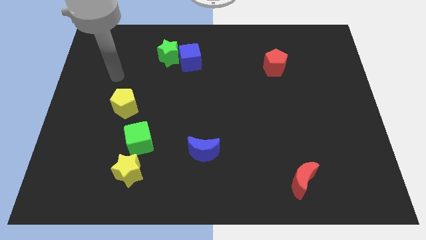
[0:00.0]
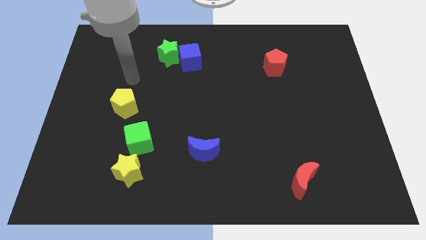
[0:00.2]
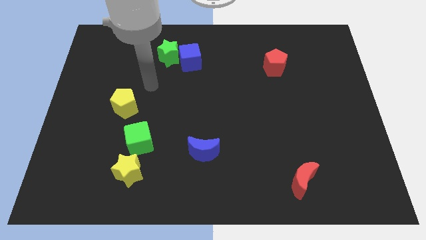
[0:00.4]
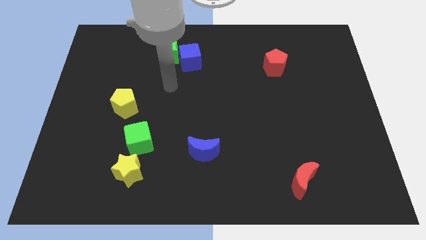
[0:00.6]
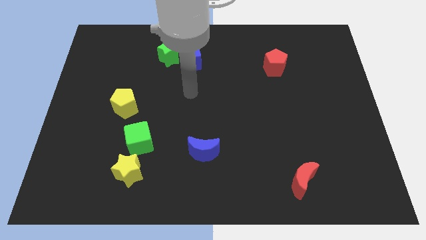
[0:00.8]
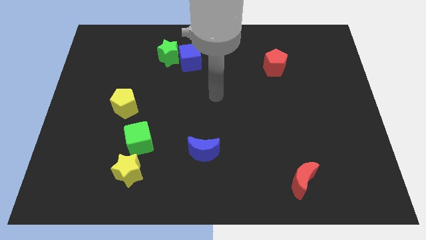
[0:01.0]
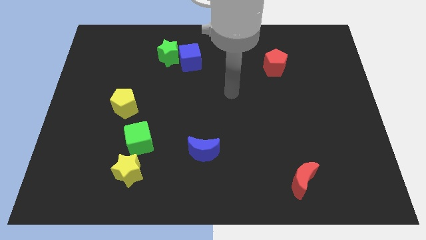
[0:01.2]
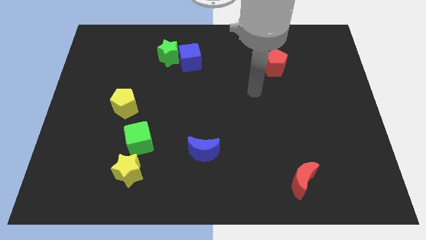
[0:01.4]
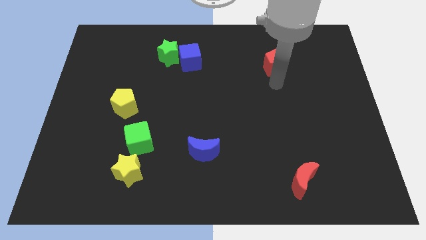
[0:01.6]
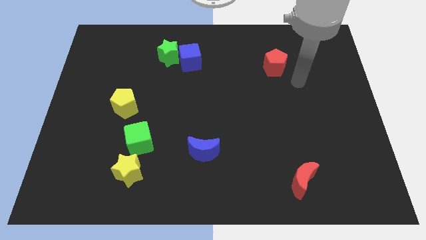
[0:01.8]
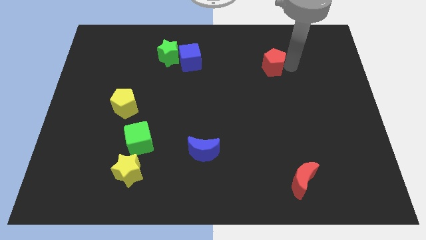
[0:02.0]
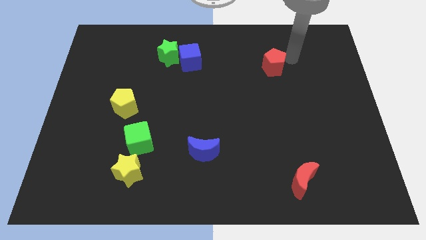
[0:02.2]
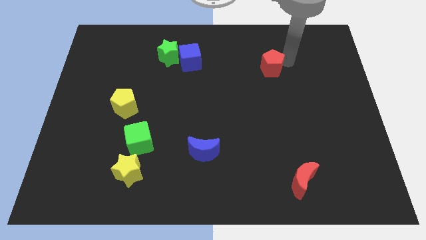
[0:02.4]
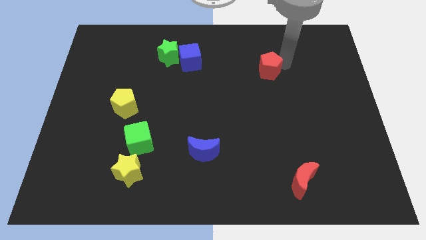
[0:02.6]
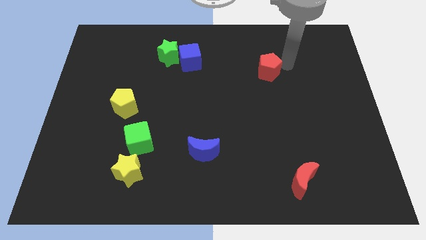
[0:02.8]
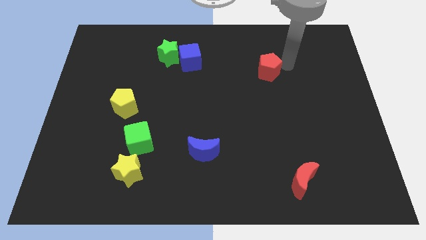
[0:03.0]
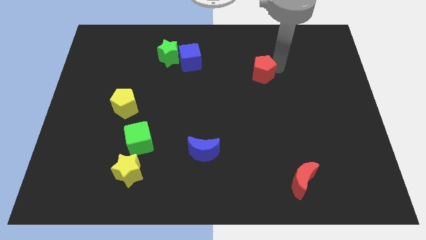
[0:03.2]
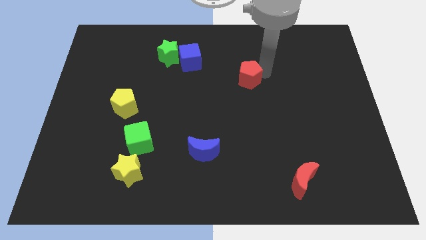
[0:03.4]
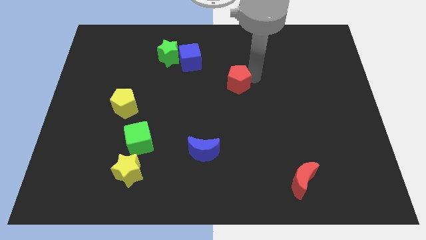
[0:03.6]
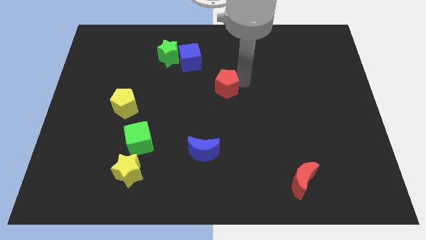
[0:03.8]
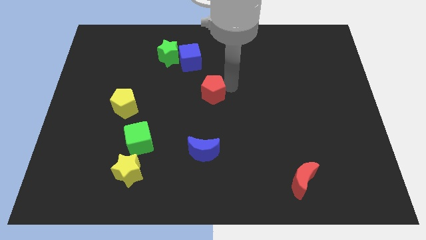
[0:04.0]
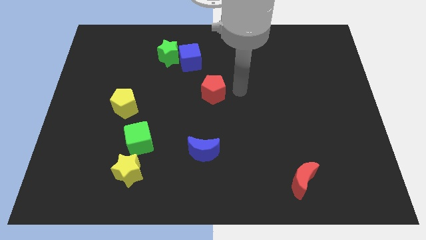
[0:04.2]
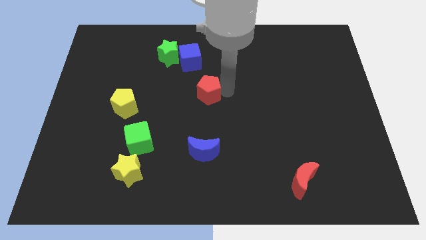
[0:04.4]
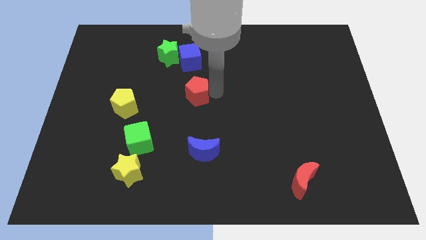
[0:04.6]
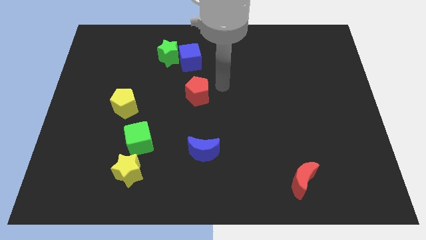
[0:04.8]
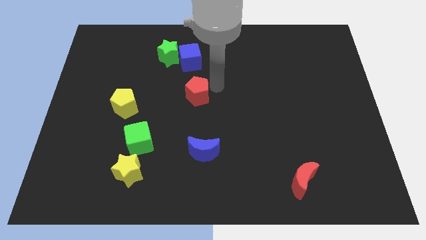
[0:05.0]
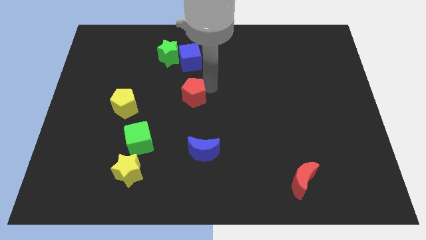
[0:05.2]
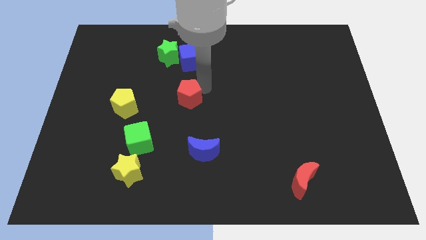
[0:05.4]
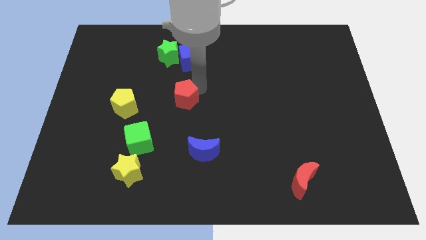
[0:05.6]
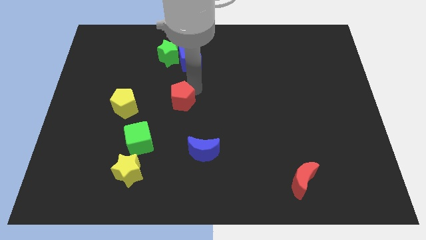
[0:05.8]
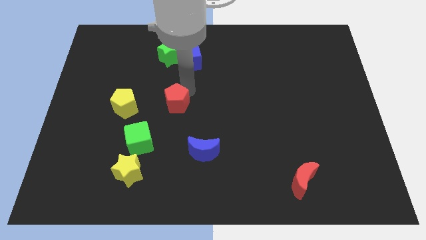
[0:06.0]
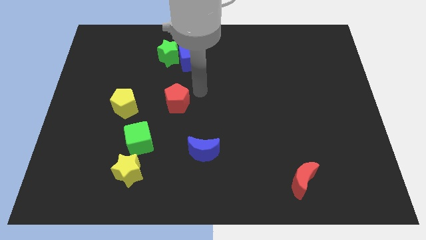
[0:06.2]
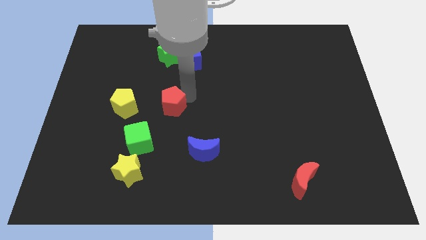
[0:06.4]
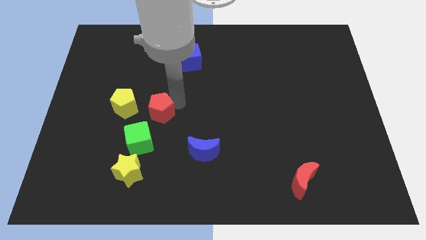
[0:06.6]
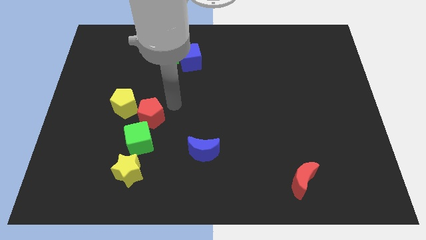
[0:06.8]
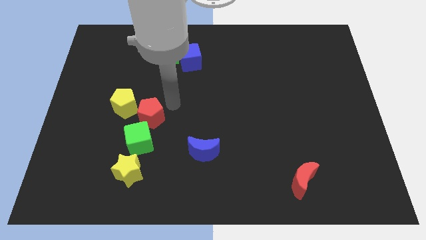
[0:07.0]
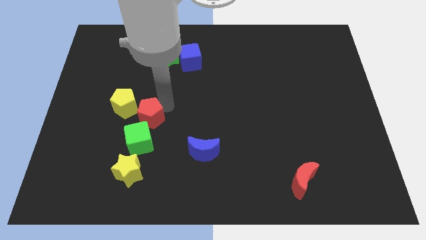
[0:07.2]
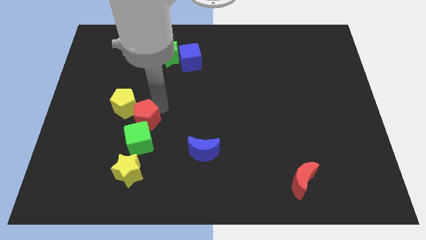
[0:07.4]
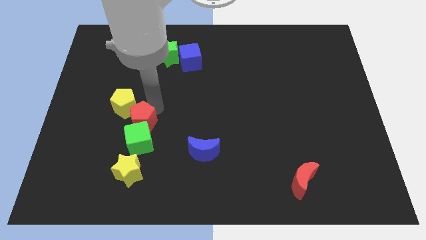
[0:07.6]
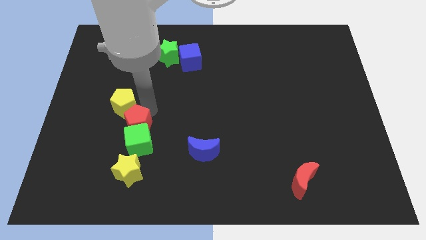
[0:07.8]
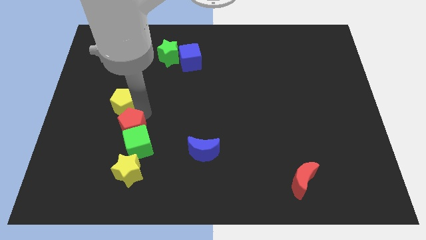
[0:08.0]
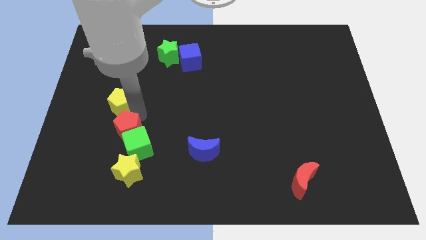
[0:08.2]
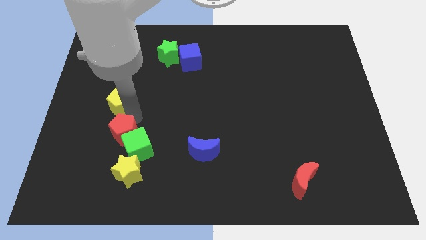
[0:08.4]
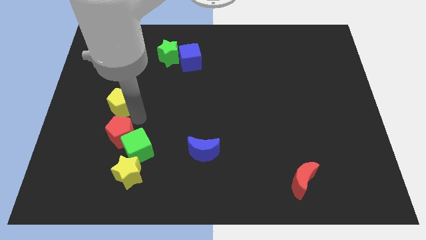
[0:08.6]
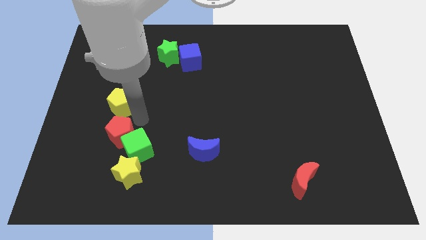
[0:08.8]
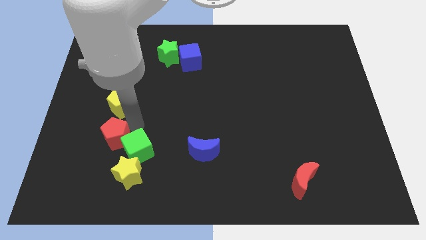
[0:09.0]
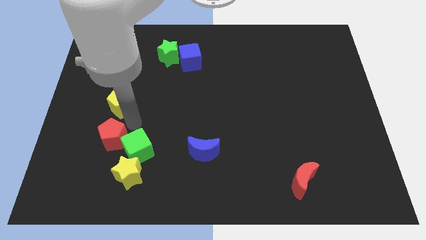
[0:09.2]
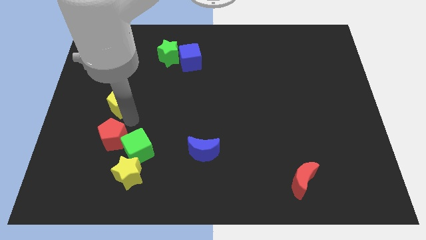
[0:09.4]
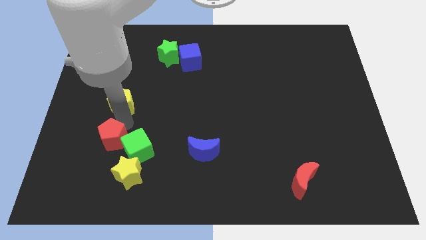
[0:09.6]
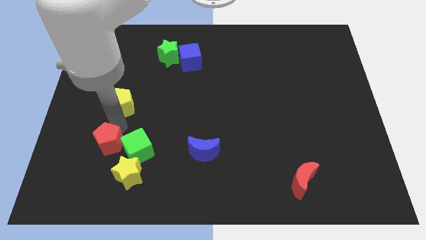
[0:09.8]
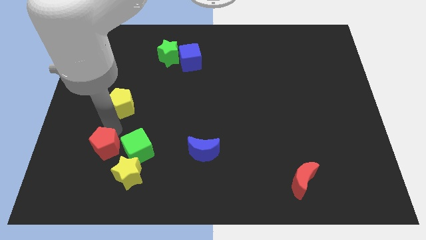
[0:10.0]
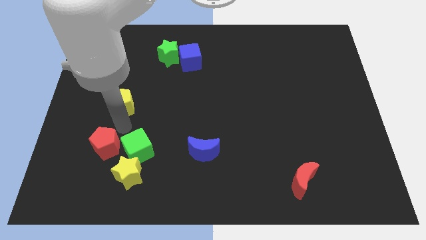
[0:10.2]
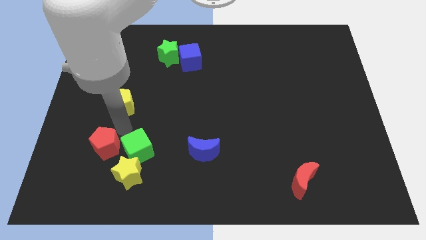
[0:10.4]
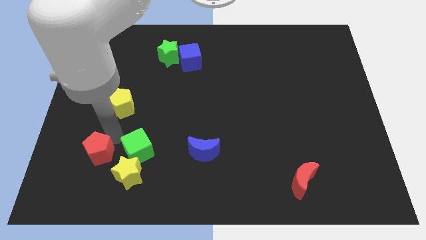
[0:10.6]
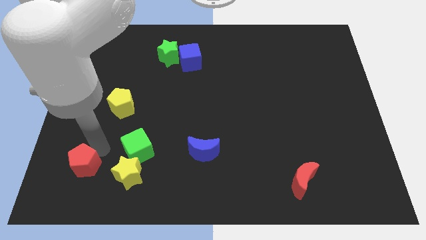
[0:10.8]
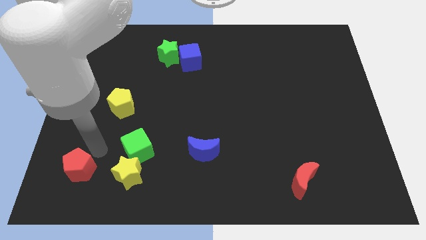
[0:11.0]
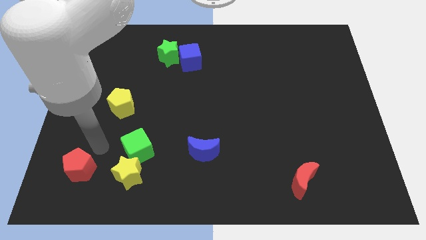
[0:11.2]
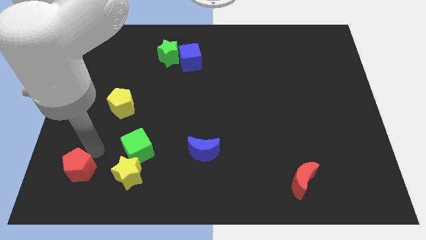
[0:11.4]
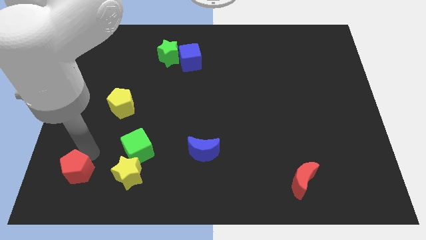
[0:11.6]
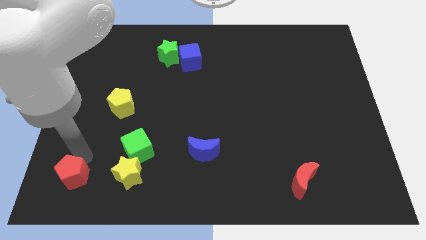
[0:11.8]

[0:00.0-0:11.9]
move the red pentagon to the bottom left
